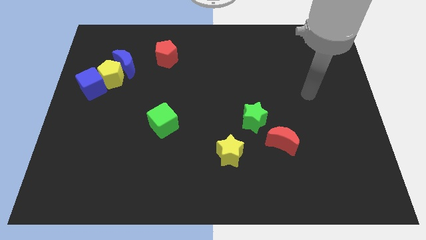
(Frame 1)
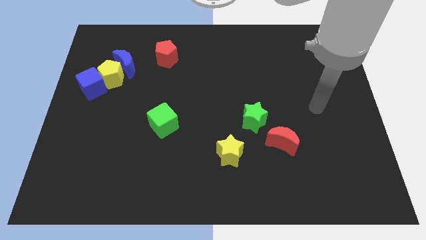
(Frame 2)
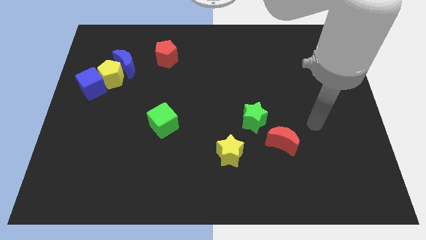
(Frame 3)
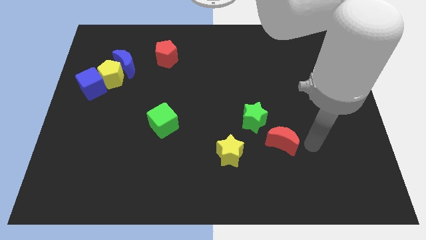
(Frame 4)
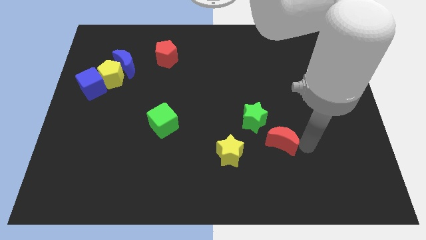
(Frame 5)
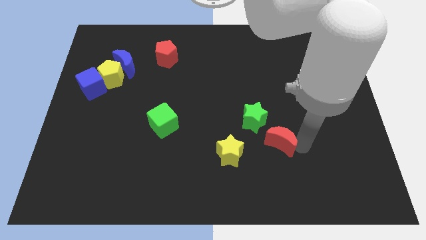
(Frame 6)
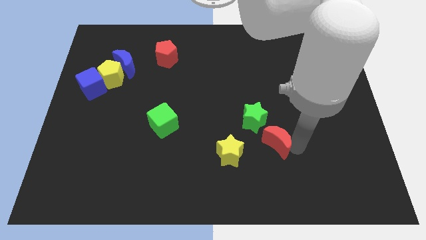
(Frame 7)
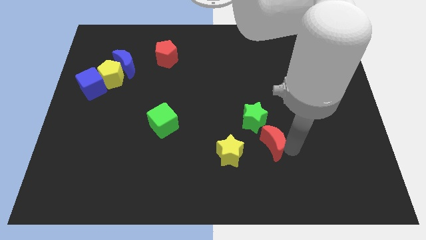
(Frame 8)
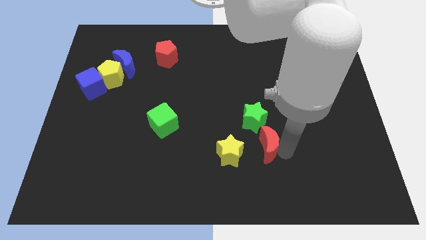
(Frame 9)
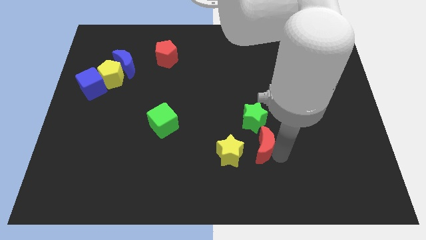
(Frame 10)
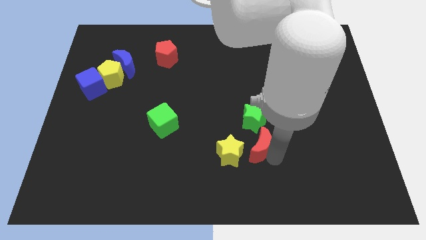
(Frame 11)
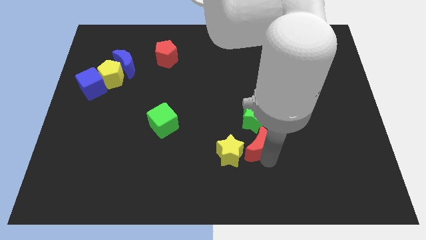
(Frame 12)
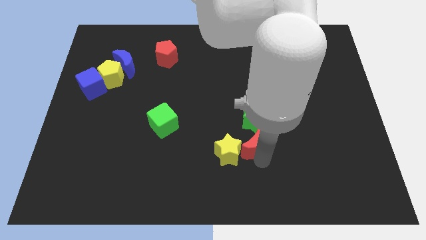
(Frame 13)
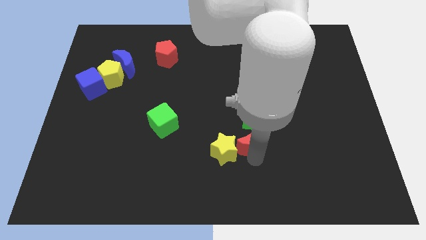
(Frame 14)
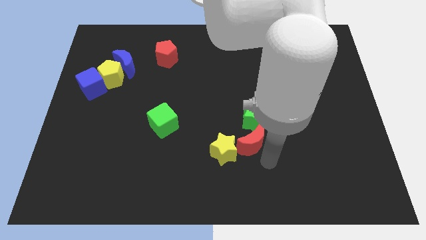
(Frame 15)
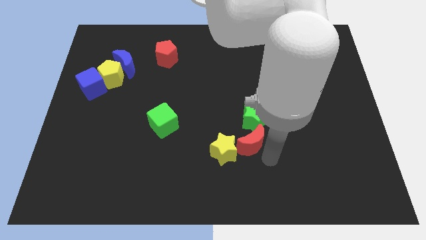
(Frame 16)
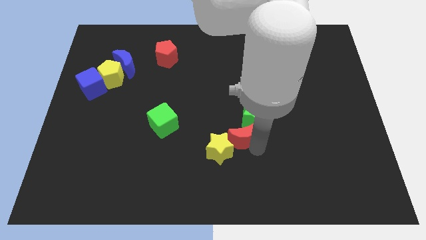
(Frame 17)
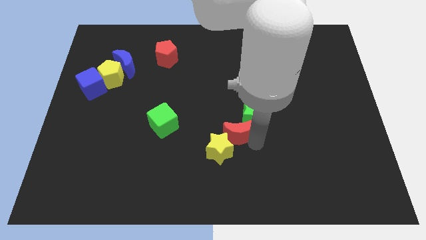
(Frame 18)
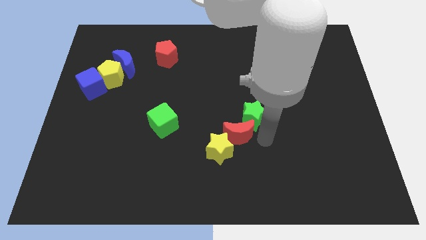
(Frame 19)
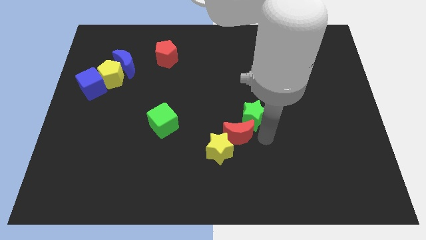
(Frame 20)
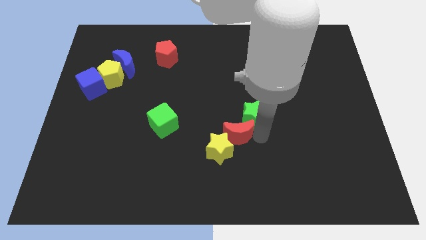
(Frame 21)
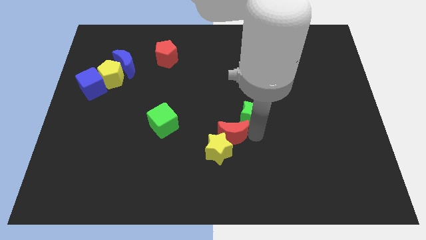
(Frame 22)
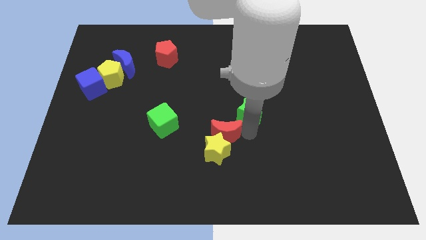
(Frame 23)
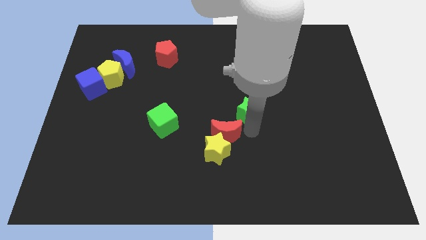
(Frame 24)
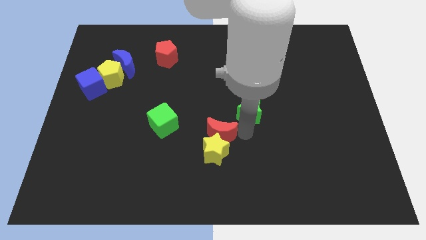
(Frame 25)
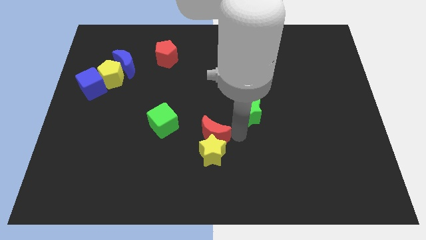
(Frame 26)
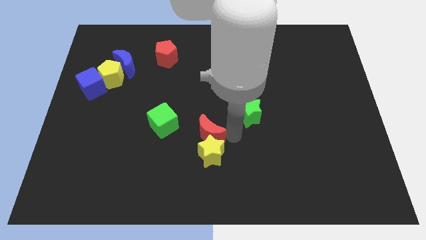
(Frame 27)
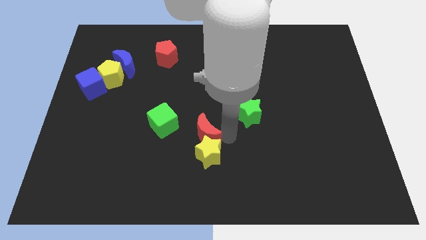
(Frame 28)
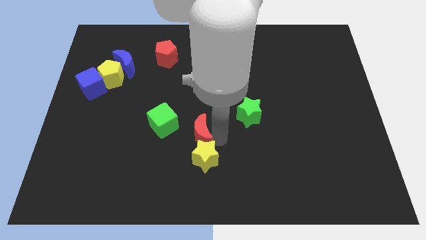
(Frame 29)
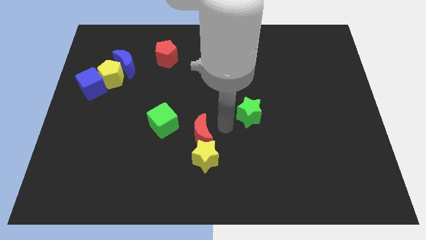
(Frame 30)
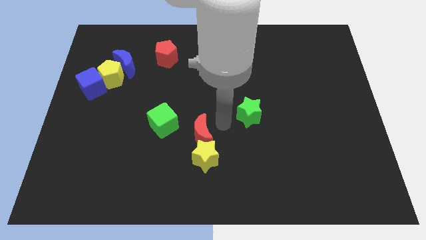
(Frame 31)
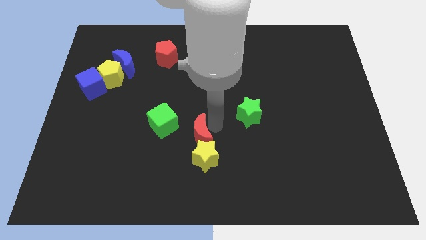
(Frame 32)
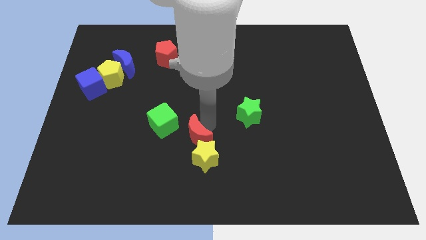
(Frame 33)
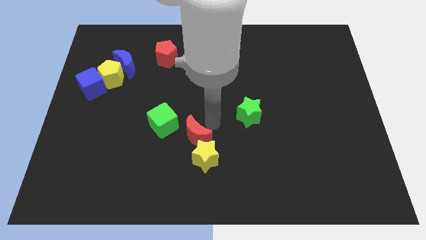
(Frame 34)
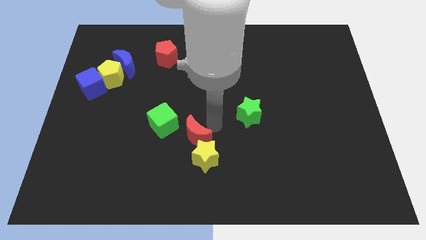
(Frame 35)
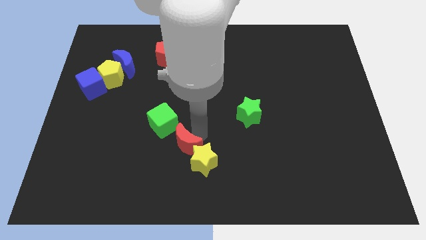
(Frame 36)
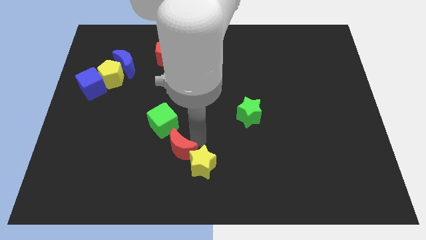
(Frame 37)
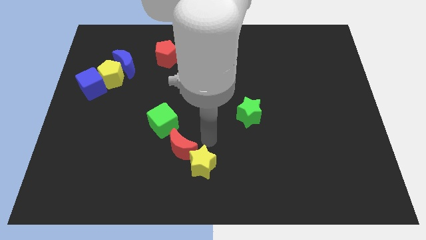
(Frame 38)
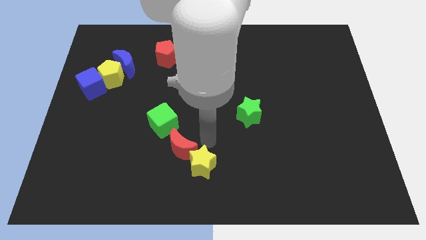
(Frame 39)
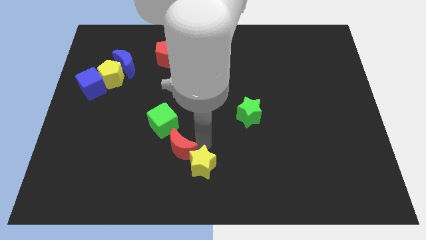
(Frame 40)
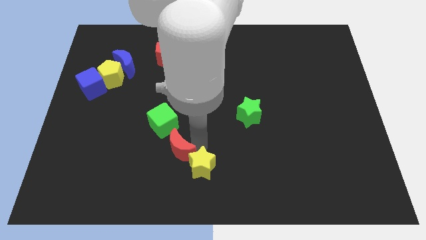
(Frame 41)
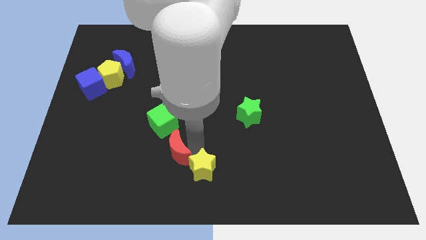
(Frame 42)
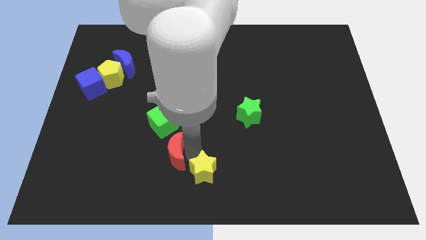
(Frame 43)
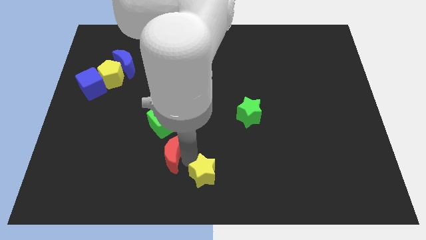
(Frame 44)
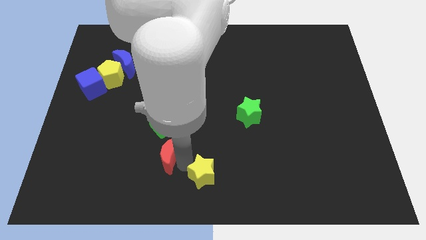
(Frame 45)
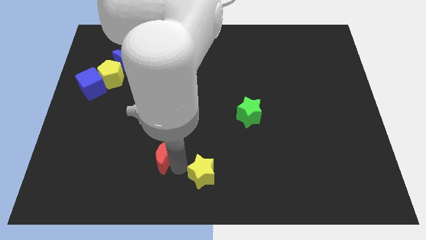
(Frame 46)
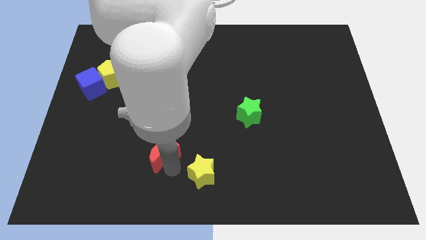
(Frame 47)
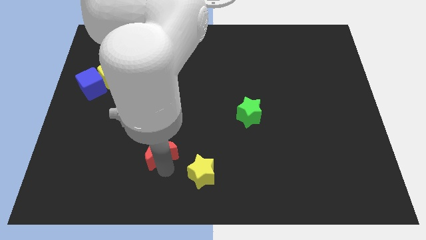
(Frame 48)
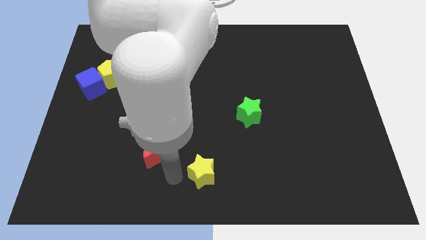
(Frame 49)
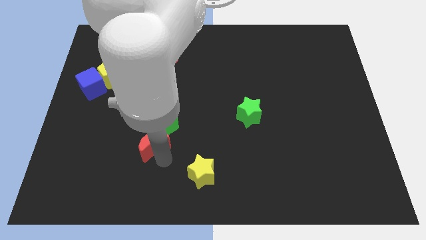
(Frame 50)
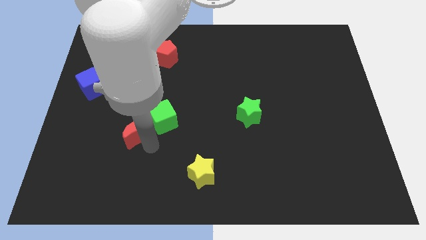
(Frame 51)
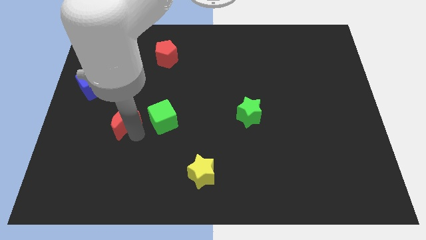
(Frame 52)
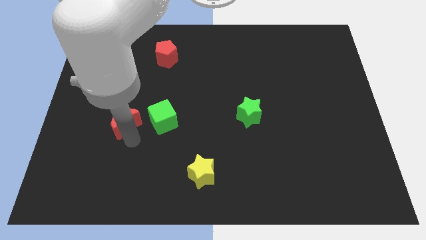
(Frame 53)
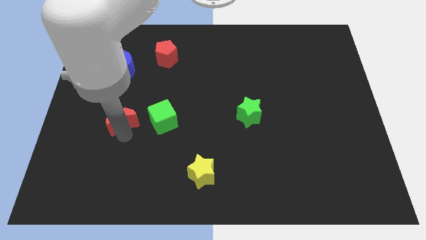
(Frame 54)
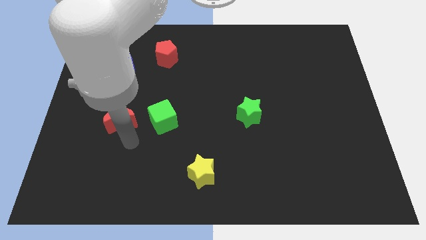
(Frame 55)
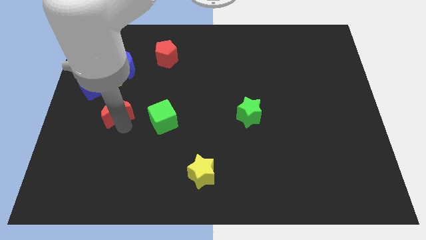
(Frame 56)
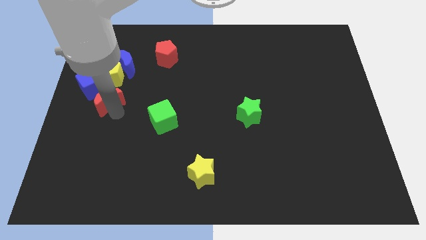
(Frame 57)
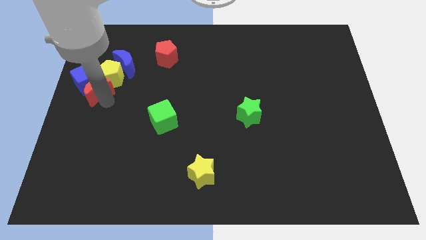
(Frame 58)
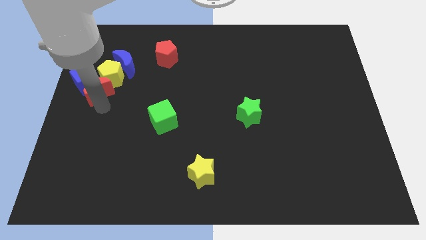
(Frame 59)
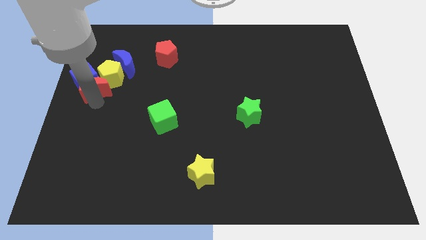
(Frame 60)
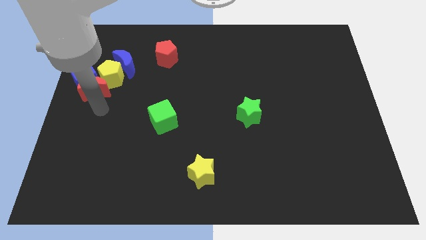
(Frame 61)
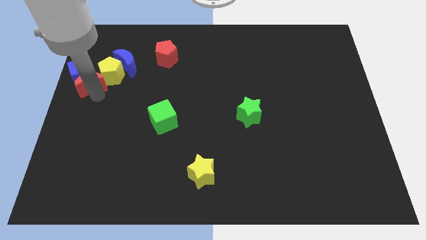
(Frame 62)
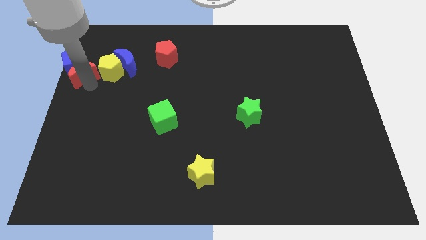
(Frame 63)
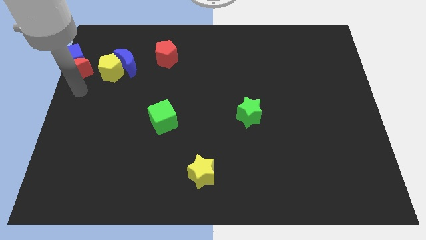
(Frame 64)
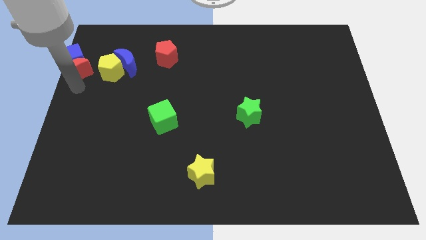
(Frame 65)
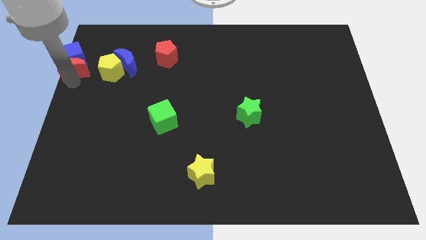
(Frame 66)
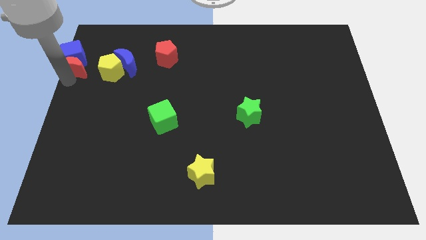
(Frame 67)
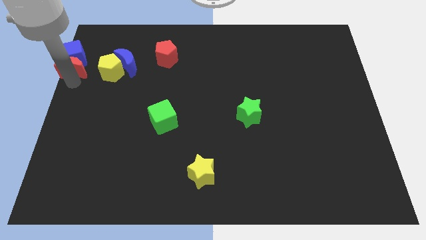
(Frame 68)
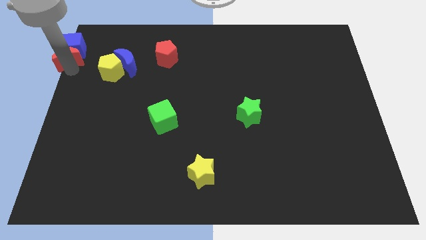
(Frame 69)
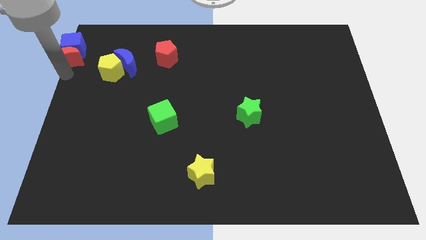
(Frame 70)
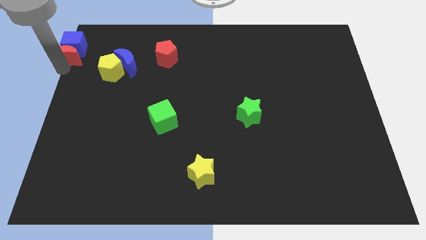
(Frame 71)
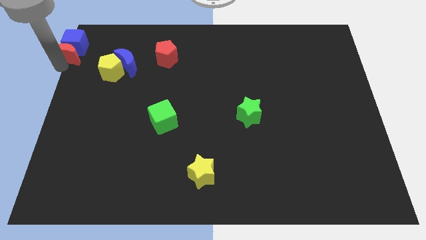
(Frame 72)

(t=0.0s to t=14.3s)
push the red moon to the upper left corner
